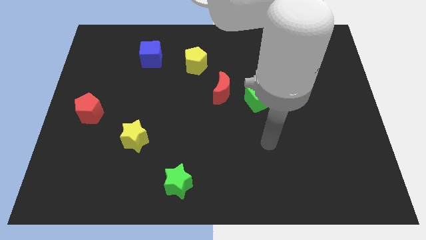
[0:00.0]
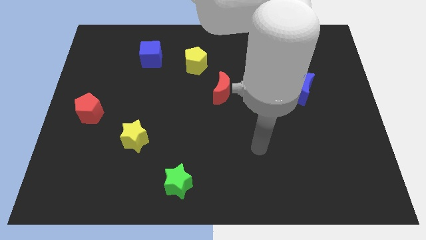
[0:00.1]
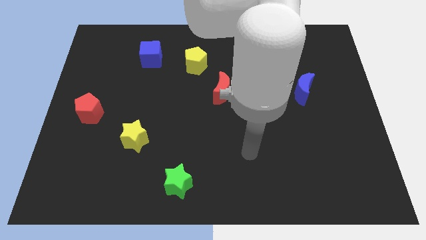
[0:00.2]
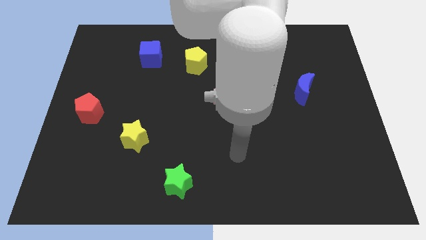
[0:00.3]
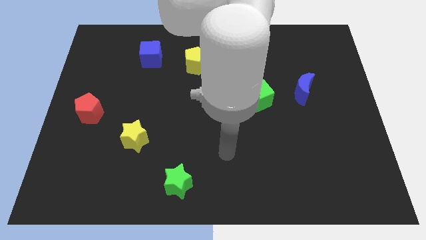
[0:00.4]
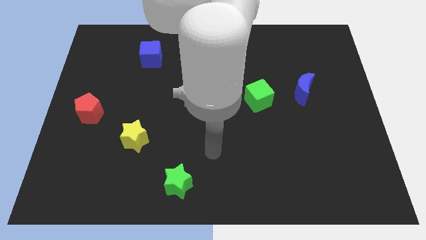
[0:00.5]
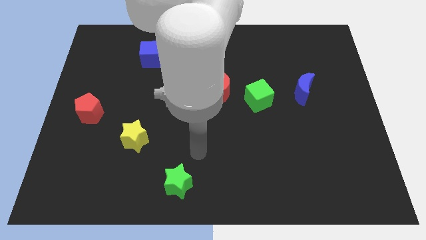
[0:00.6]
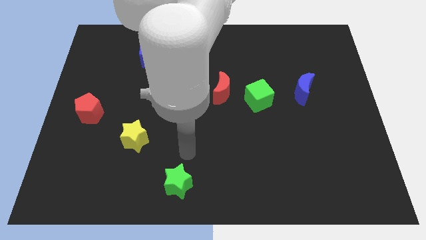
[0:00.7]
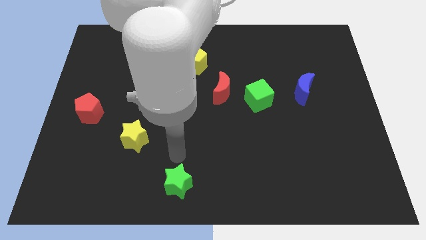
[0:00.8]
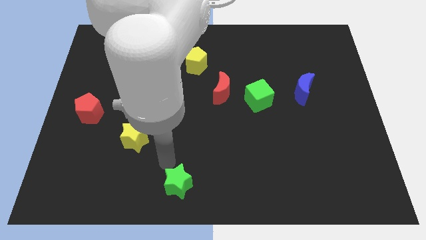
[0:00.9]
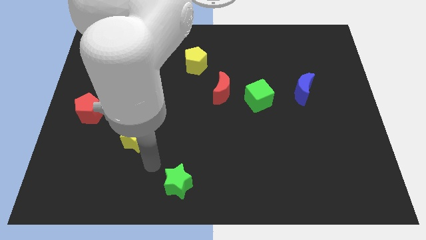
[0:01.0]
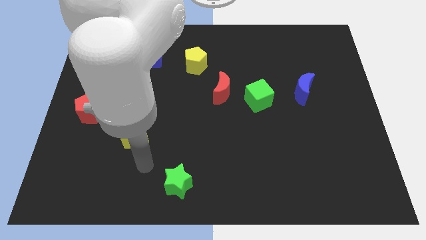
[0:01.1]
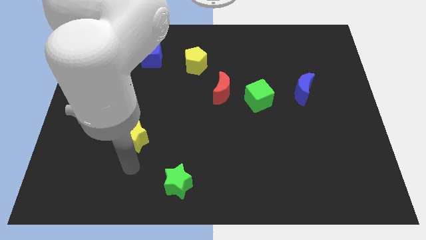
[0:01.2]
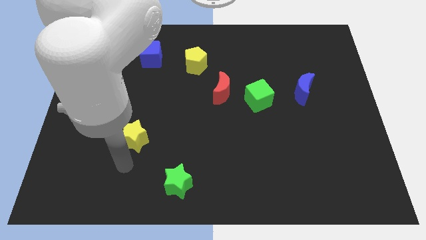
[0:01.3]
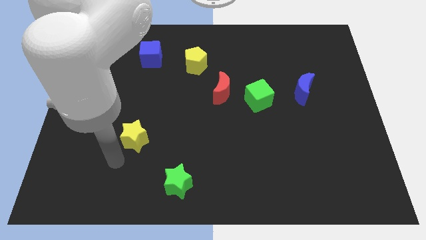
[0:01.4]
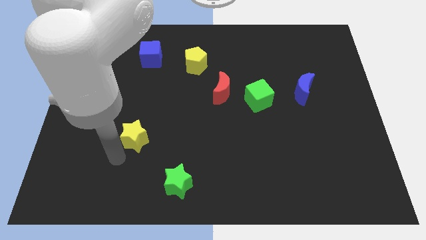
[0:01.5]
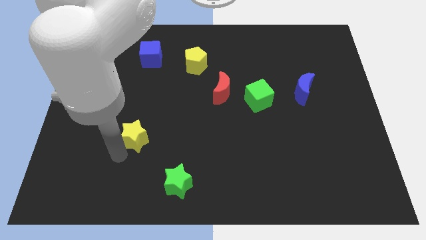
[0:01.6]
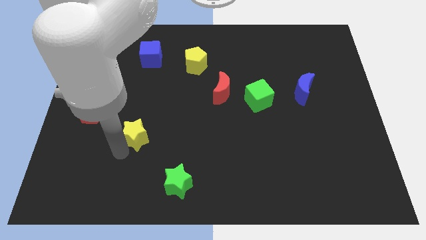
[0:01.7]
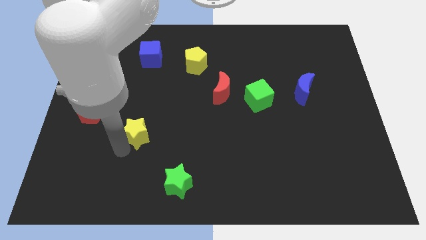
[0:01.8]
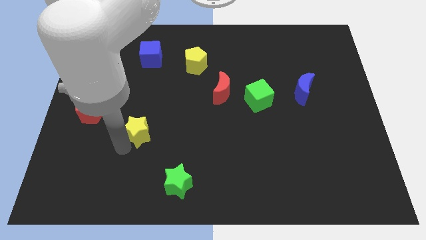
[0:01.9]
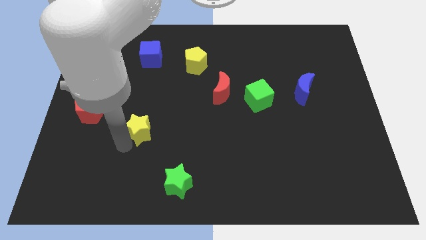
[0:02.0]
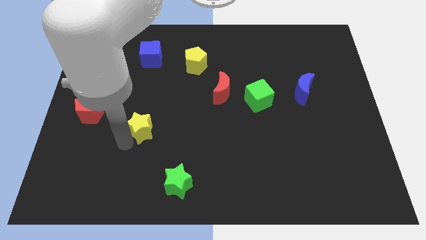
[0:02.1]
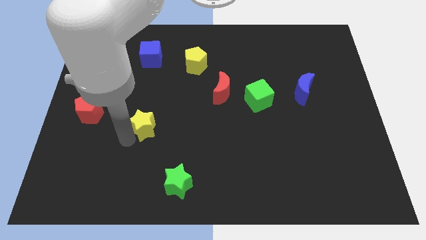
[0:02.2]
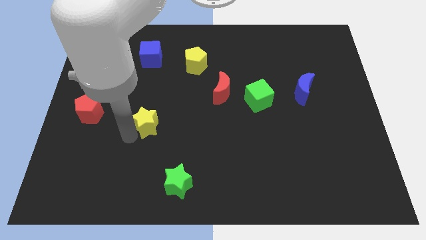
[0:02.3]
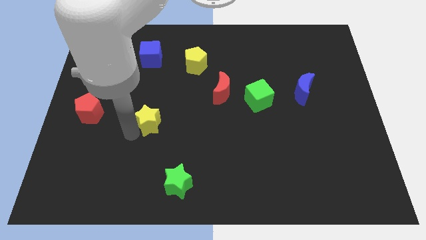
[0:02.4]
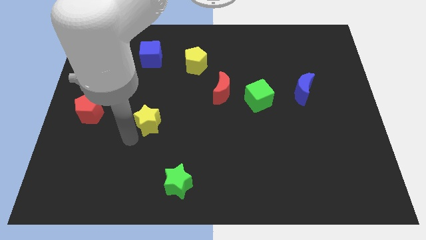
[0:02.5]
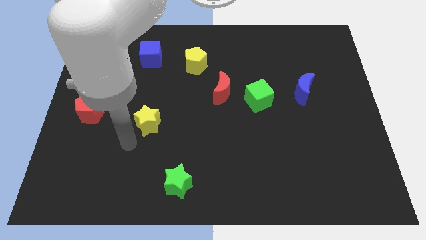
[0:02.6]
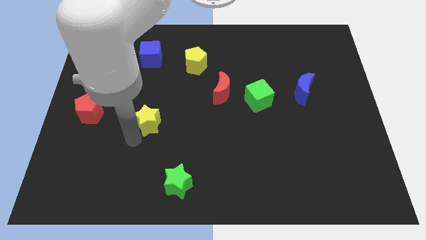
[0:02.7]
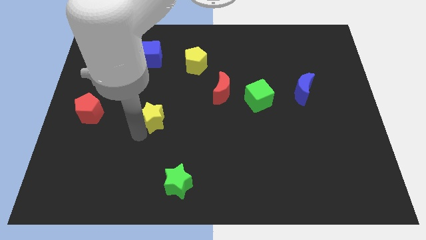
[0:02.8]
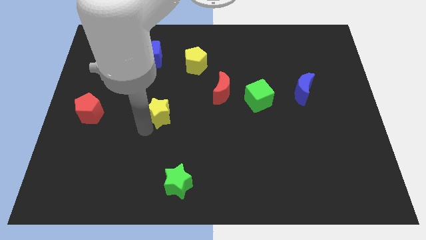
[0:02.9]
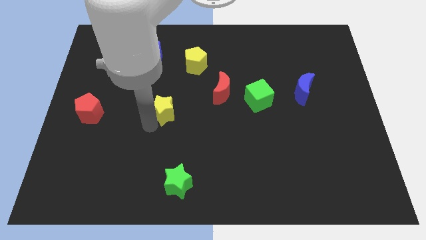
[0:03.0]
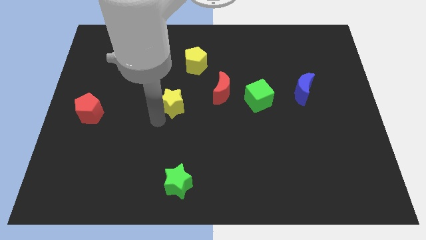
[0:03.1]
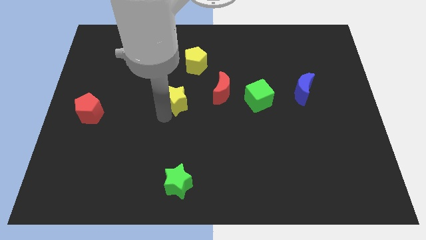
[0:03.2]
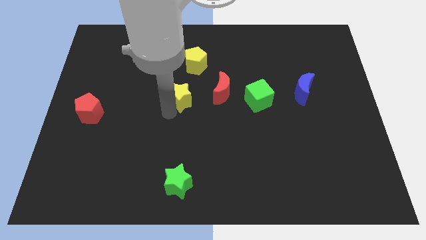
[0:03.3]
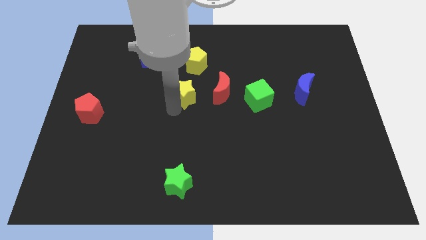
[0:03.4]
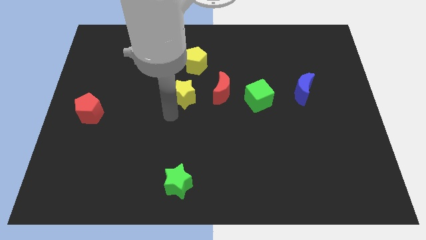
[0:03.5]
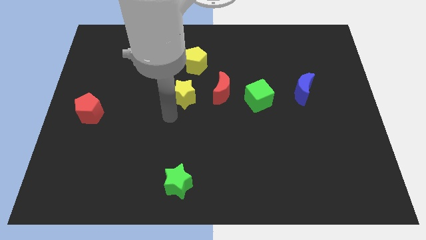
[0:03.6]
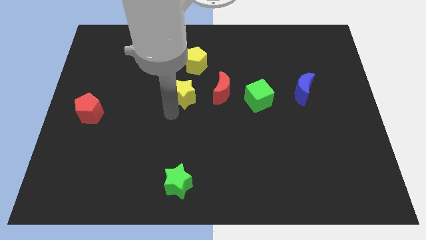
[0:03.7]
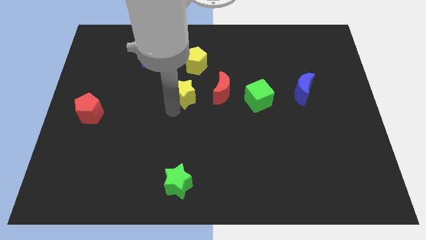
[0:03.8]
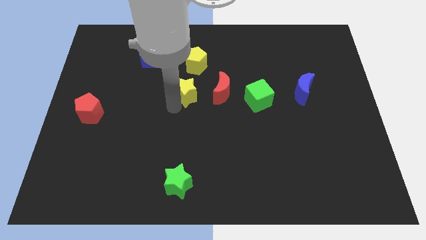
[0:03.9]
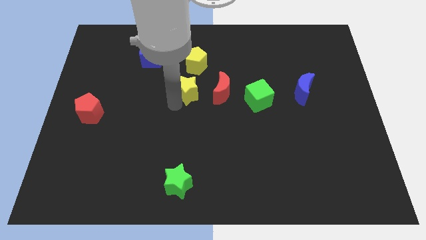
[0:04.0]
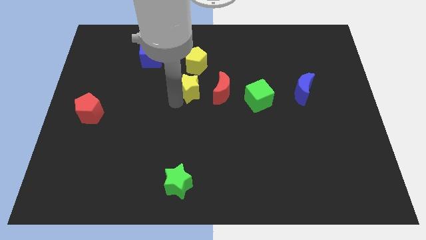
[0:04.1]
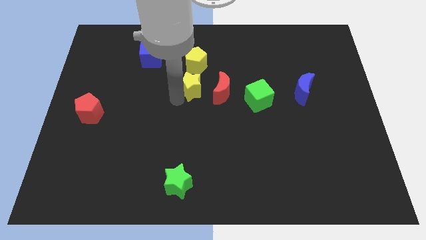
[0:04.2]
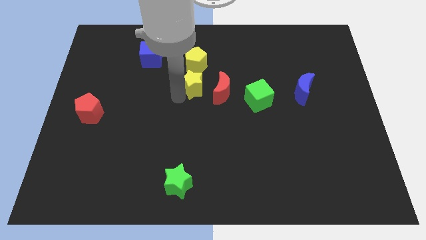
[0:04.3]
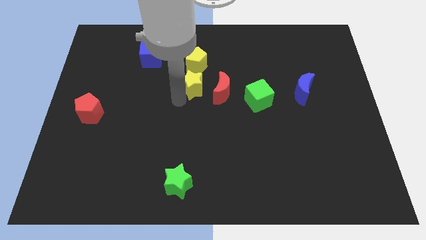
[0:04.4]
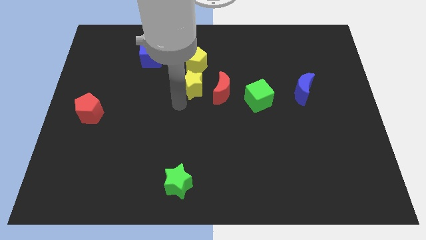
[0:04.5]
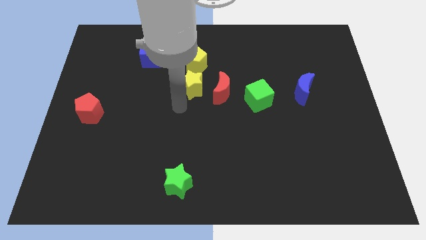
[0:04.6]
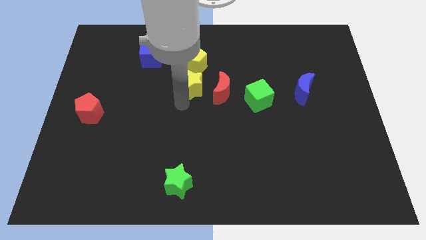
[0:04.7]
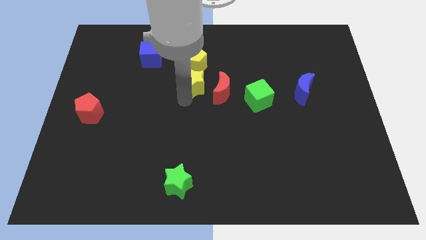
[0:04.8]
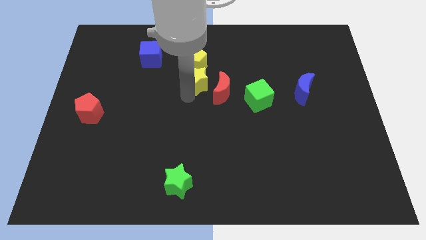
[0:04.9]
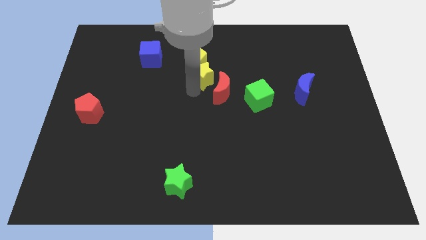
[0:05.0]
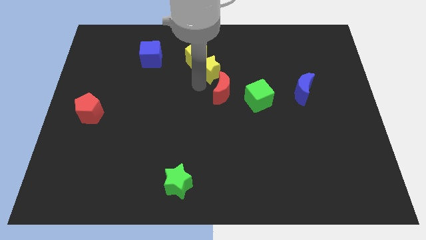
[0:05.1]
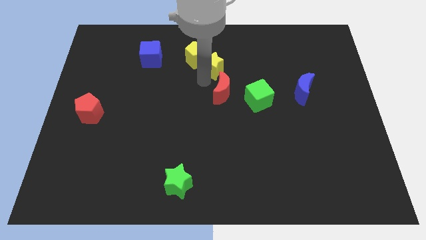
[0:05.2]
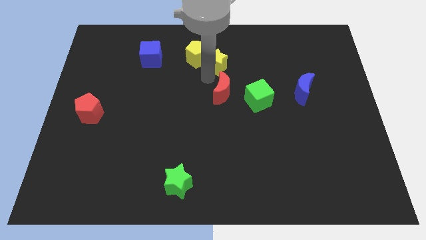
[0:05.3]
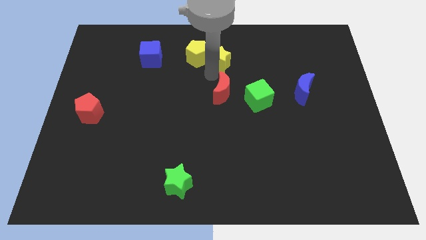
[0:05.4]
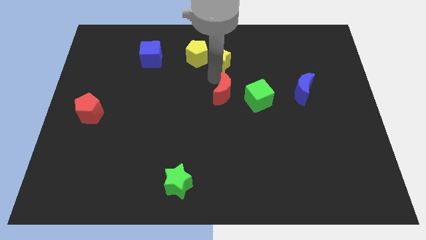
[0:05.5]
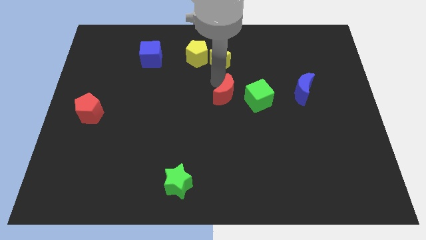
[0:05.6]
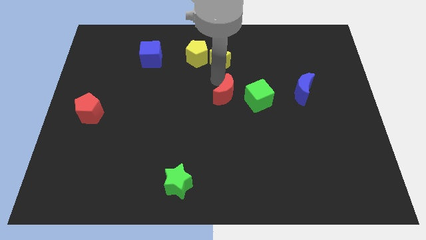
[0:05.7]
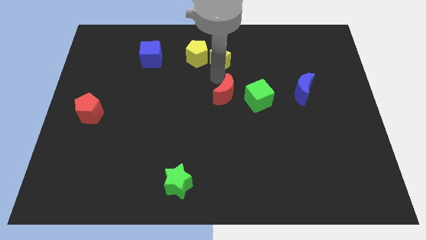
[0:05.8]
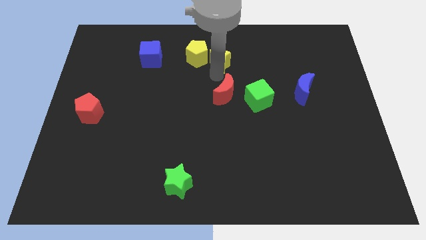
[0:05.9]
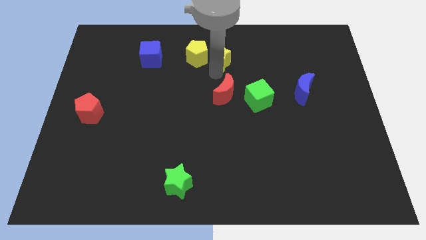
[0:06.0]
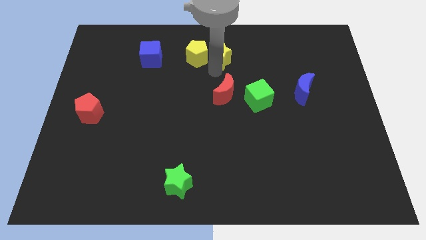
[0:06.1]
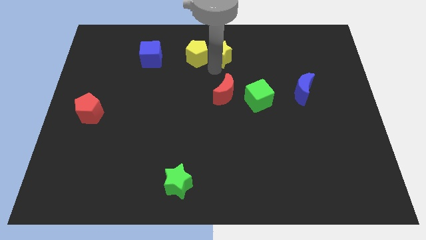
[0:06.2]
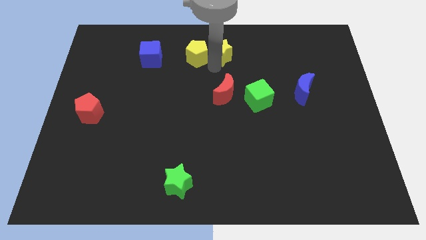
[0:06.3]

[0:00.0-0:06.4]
put the yellow star to the towards your base
